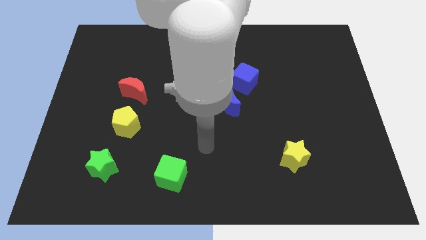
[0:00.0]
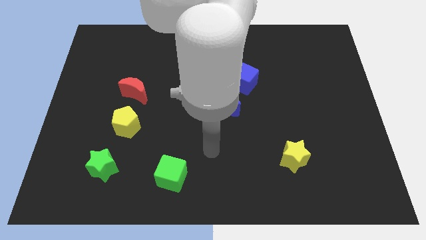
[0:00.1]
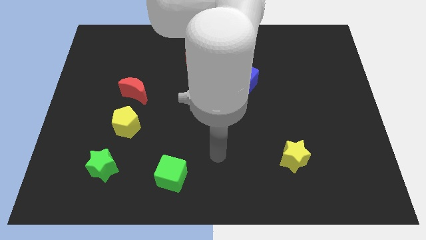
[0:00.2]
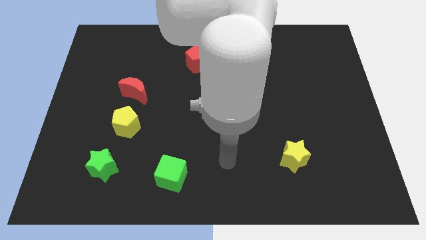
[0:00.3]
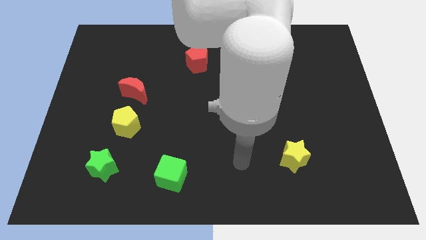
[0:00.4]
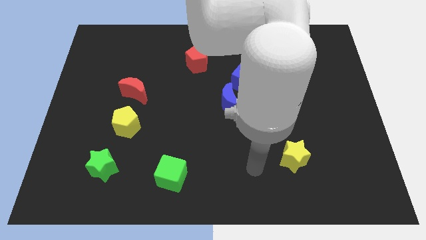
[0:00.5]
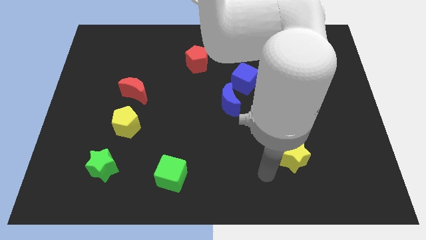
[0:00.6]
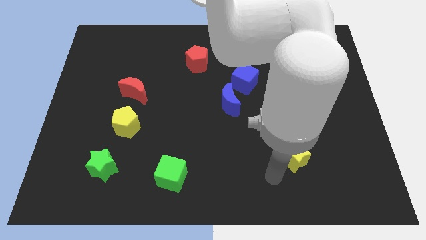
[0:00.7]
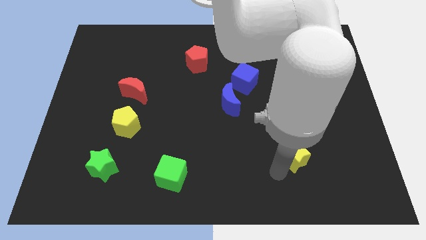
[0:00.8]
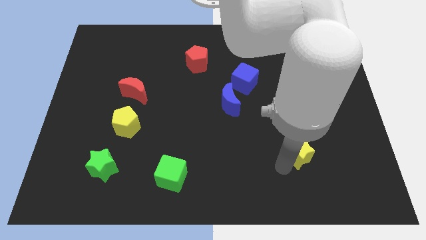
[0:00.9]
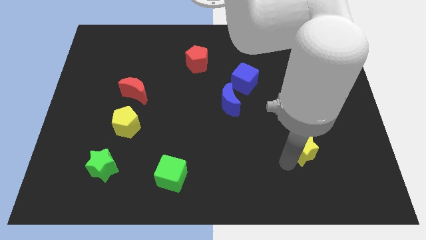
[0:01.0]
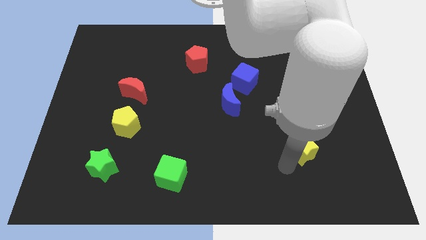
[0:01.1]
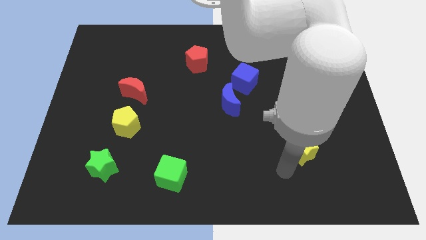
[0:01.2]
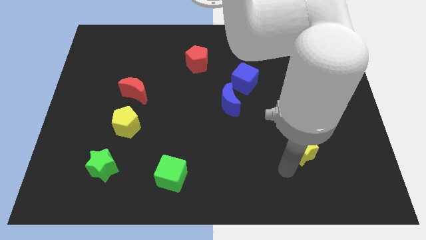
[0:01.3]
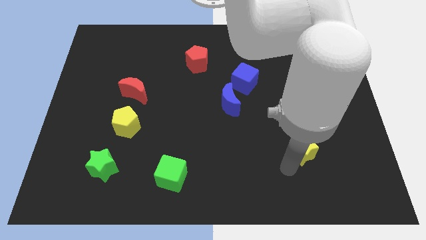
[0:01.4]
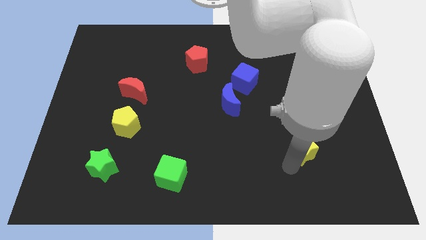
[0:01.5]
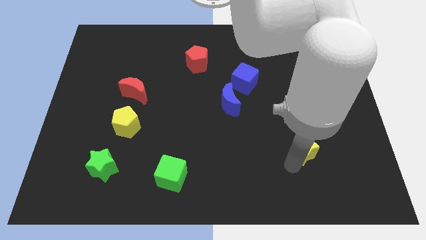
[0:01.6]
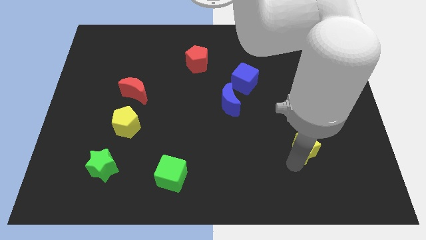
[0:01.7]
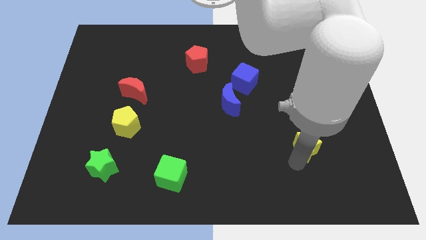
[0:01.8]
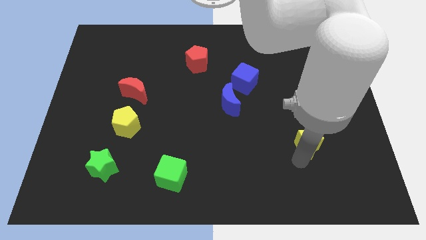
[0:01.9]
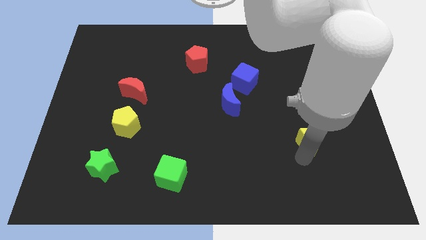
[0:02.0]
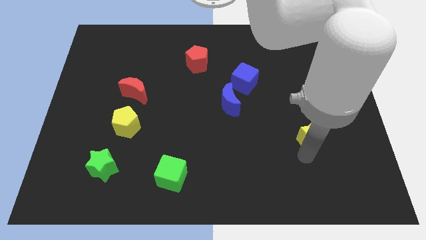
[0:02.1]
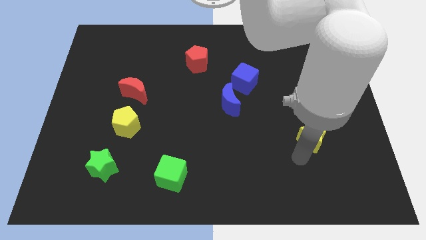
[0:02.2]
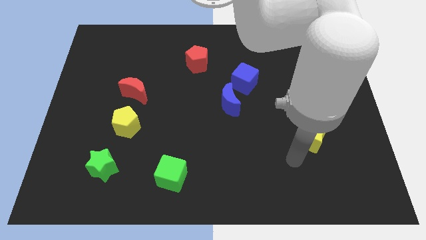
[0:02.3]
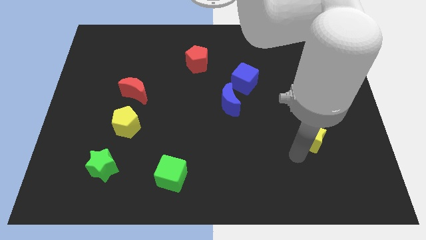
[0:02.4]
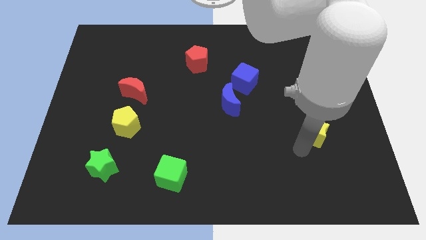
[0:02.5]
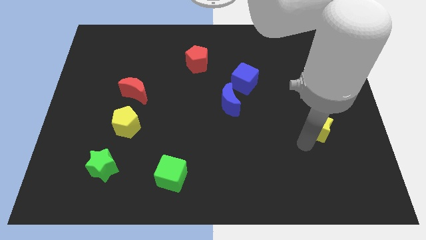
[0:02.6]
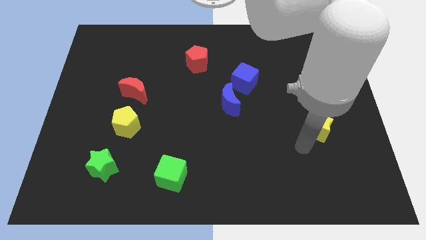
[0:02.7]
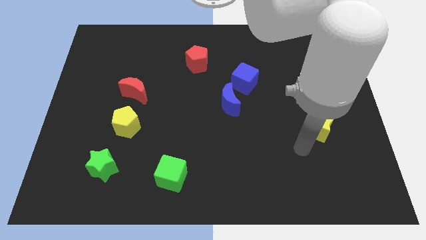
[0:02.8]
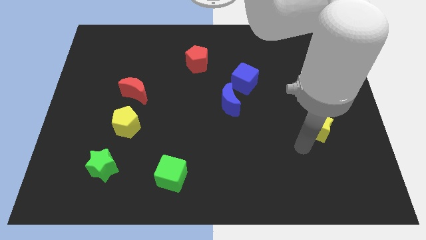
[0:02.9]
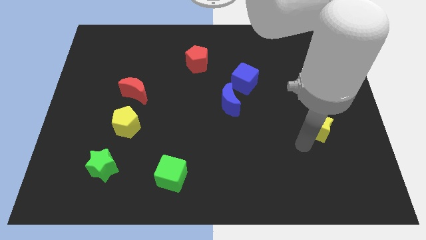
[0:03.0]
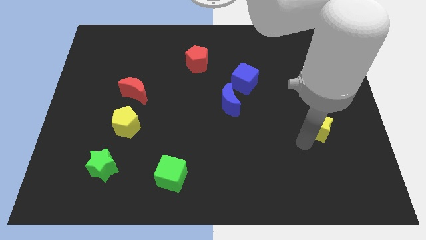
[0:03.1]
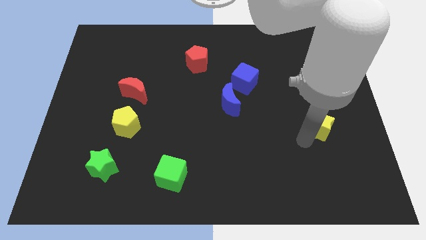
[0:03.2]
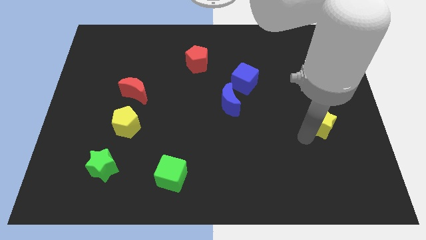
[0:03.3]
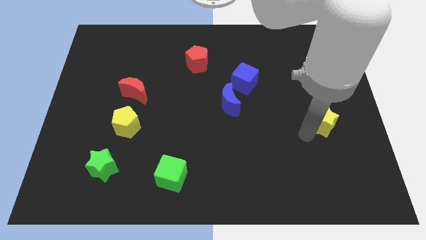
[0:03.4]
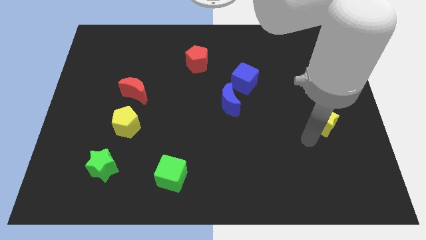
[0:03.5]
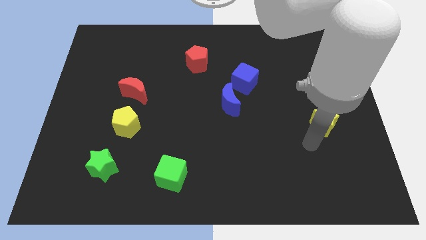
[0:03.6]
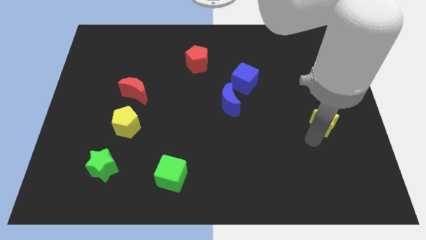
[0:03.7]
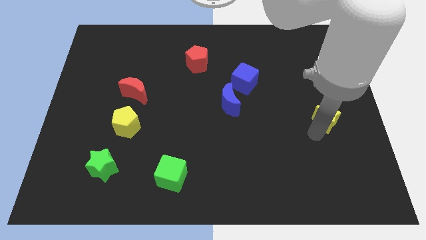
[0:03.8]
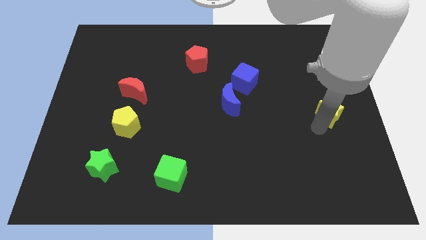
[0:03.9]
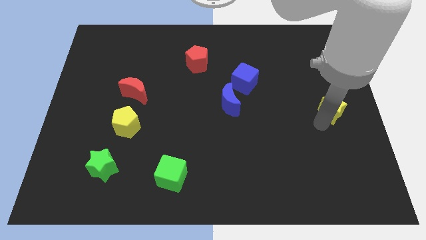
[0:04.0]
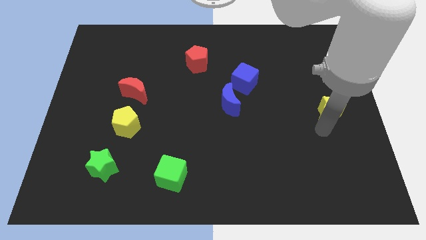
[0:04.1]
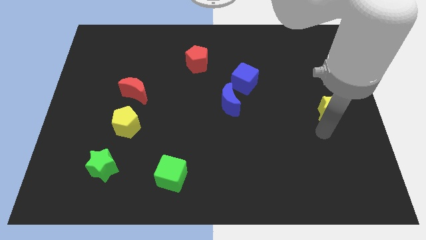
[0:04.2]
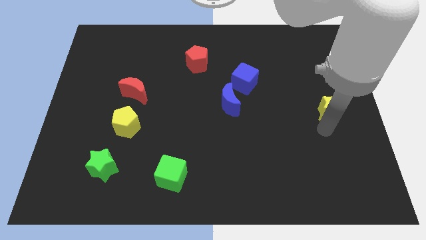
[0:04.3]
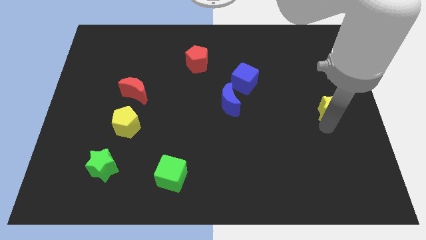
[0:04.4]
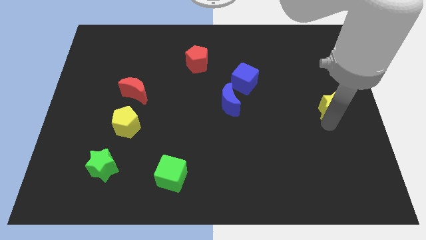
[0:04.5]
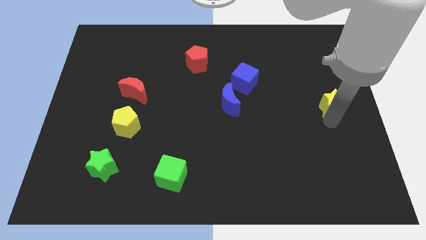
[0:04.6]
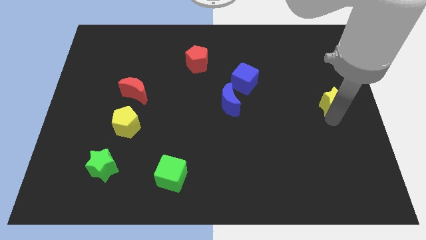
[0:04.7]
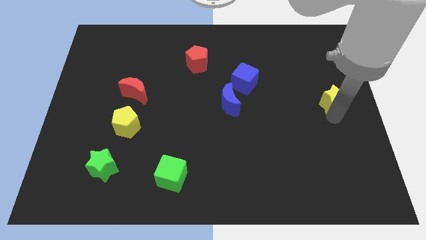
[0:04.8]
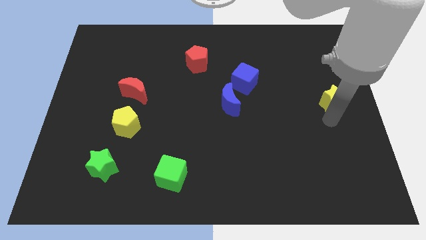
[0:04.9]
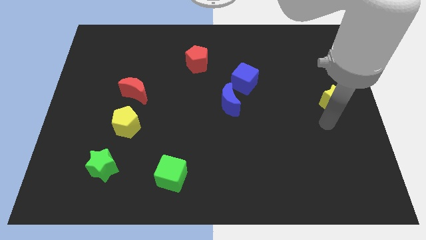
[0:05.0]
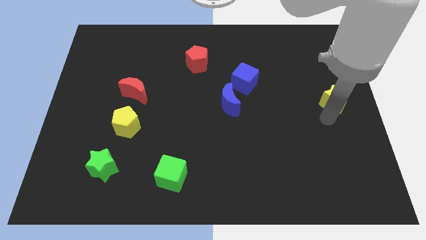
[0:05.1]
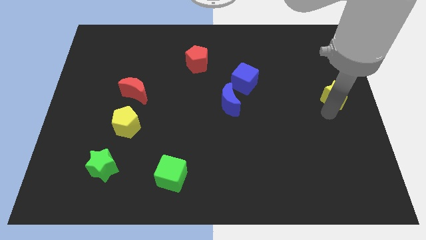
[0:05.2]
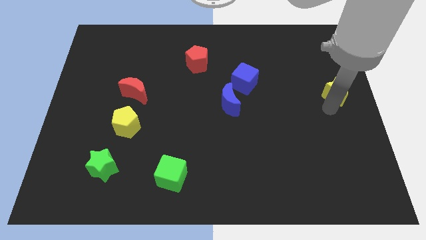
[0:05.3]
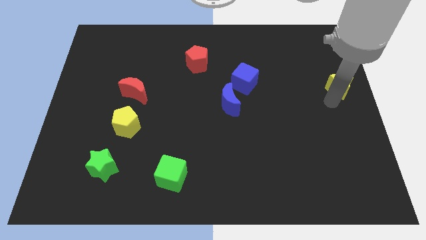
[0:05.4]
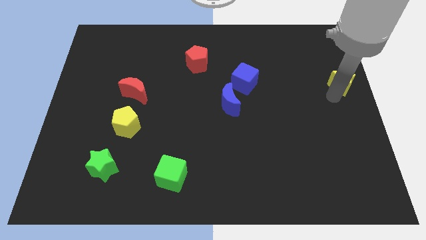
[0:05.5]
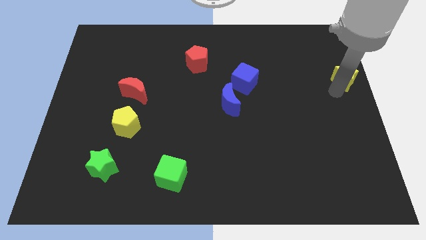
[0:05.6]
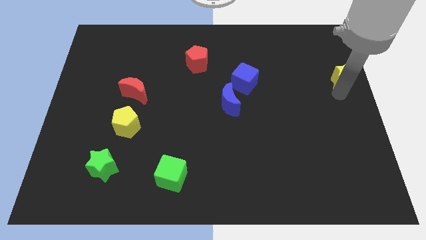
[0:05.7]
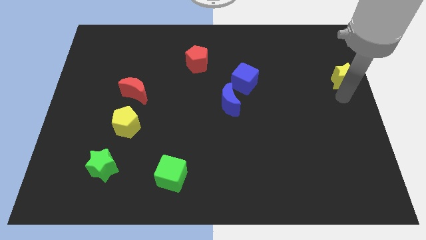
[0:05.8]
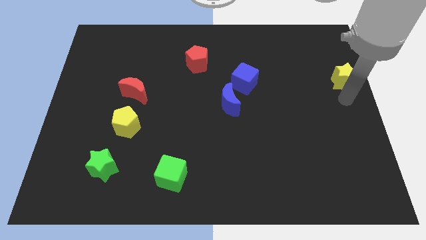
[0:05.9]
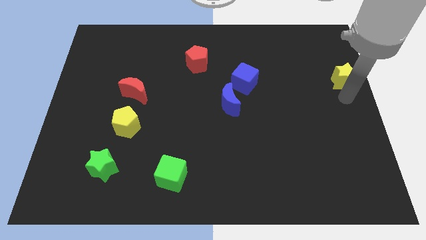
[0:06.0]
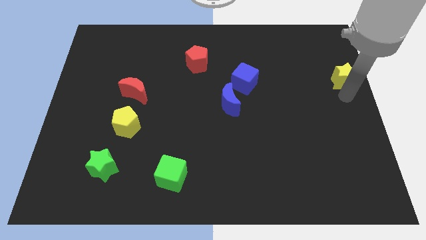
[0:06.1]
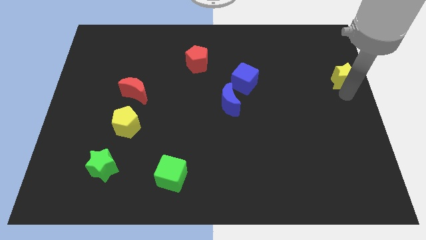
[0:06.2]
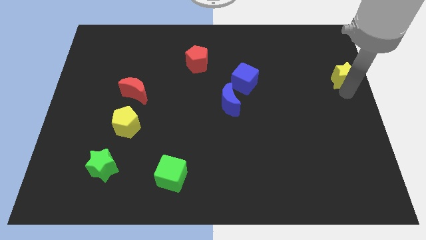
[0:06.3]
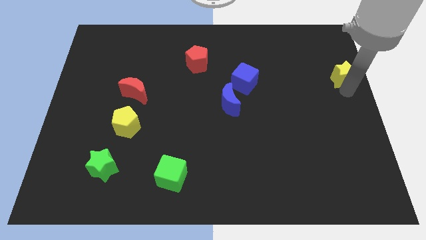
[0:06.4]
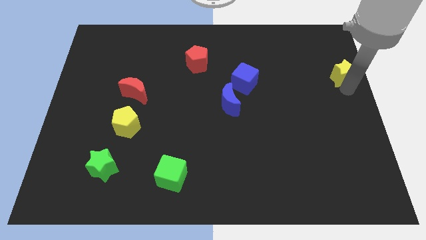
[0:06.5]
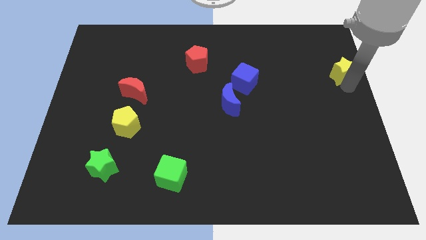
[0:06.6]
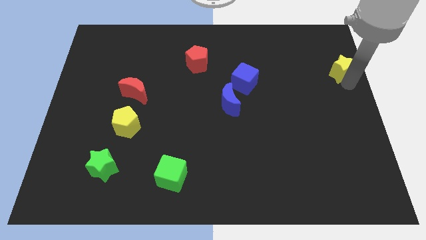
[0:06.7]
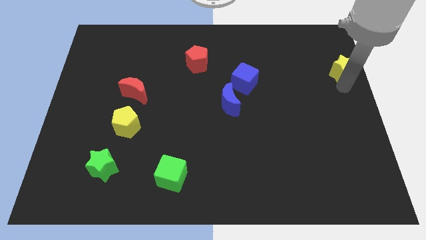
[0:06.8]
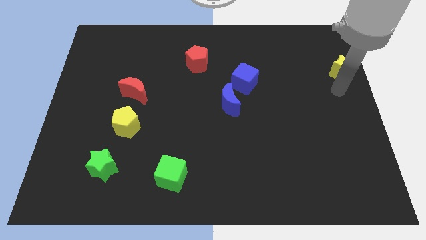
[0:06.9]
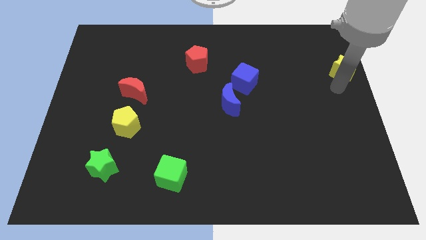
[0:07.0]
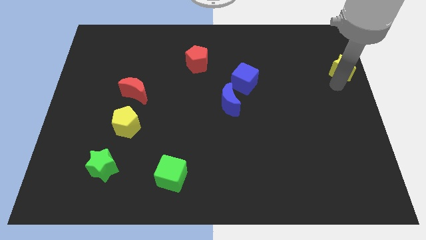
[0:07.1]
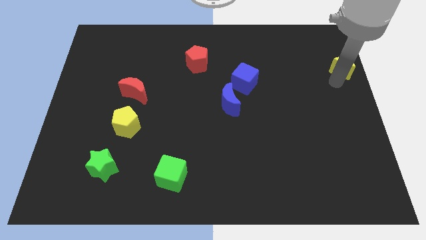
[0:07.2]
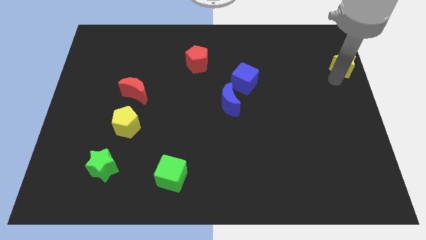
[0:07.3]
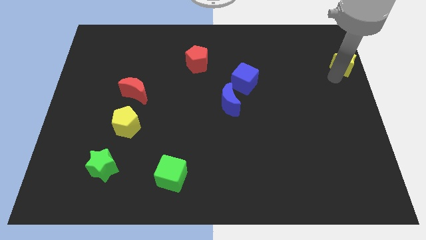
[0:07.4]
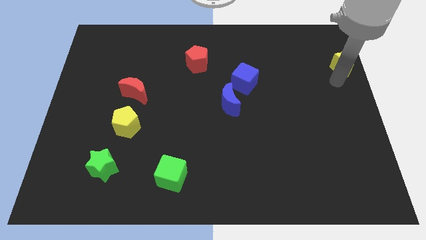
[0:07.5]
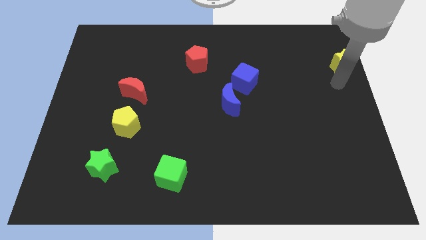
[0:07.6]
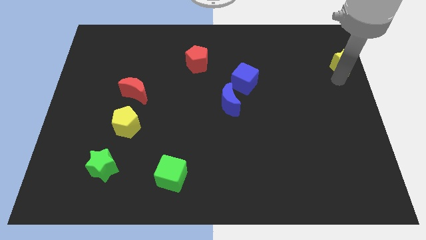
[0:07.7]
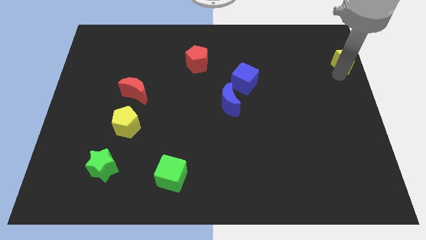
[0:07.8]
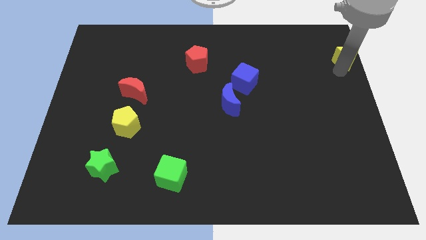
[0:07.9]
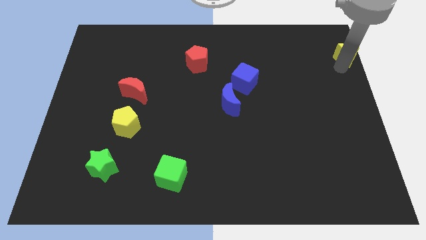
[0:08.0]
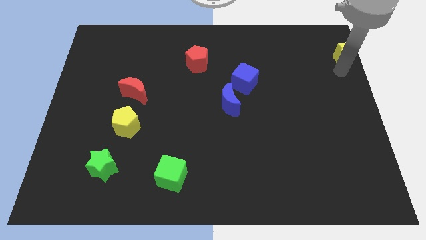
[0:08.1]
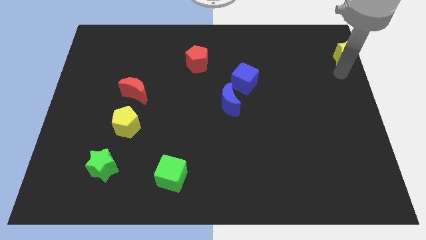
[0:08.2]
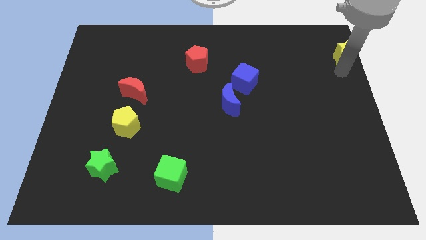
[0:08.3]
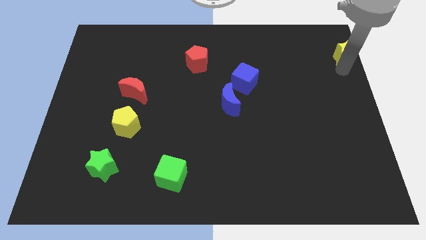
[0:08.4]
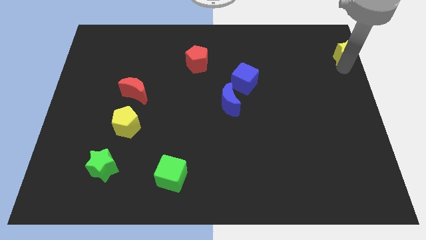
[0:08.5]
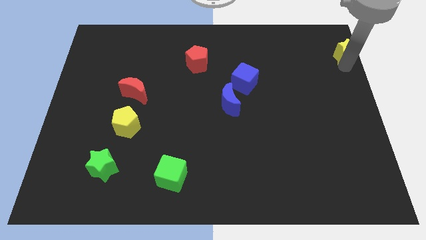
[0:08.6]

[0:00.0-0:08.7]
push the yellow star to the upper right corner
